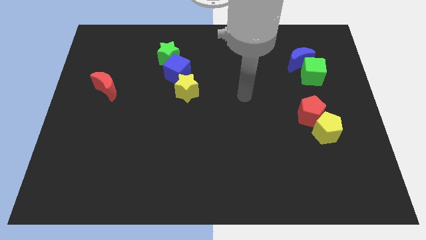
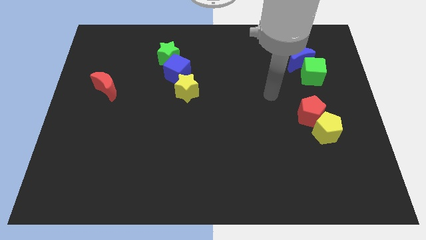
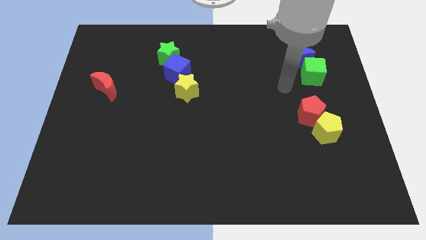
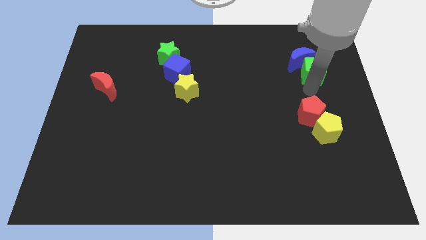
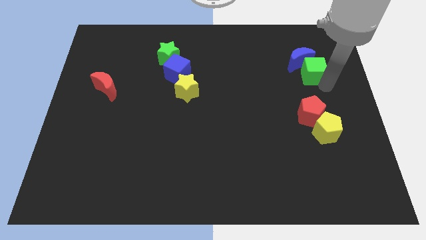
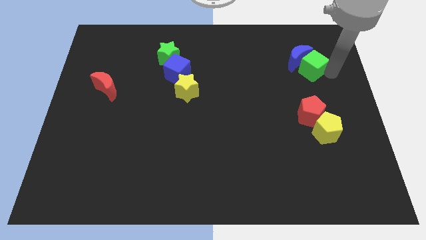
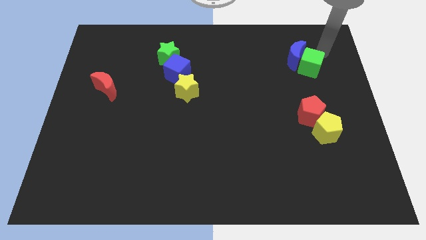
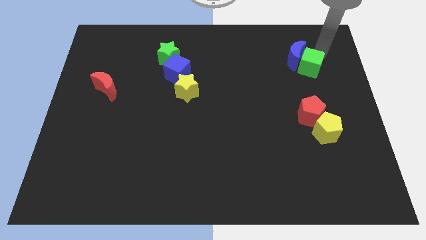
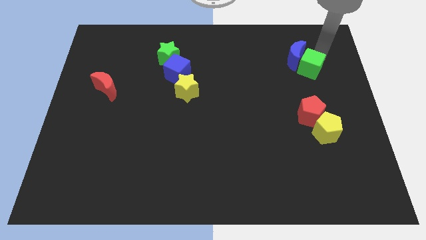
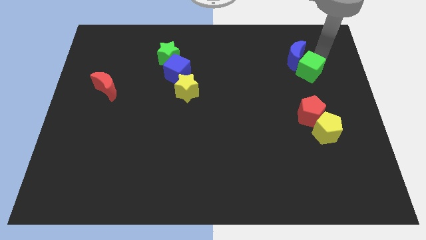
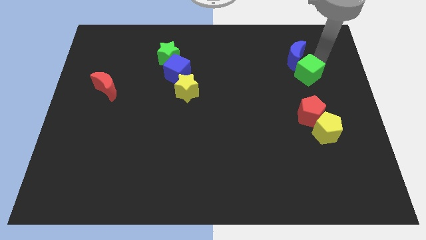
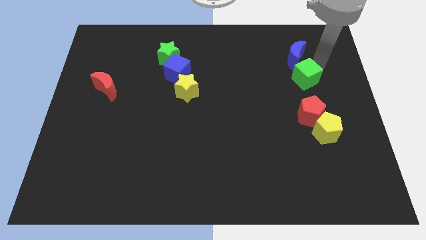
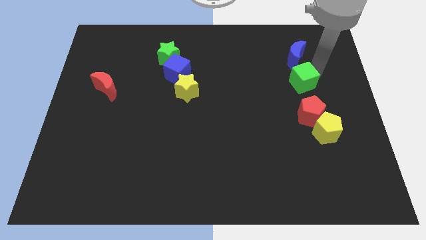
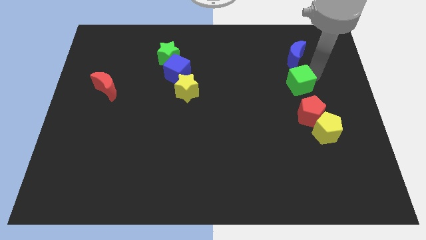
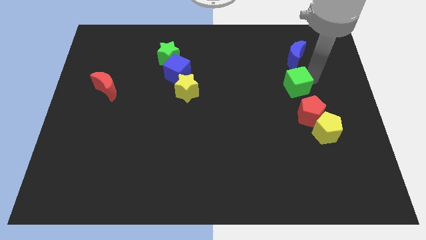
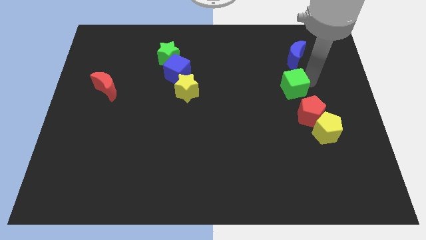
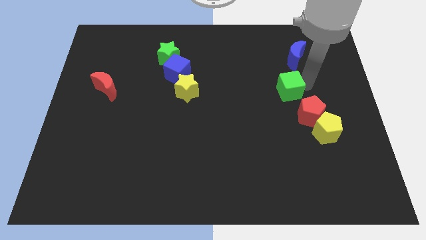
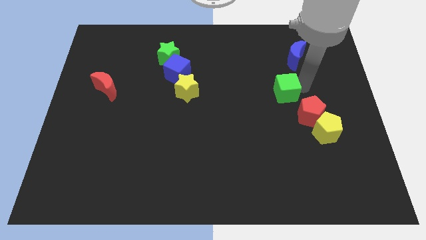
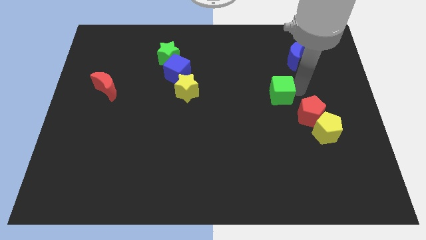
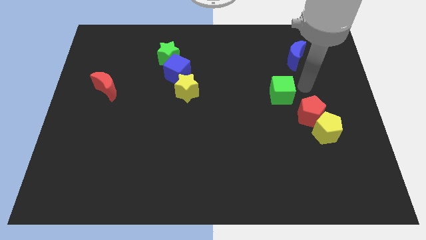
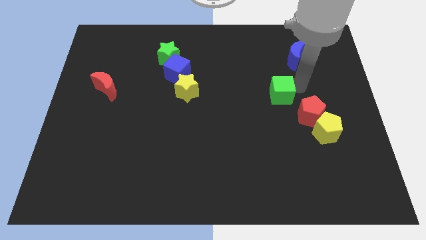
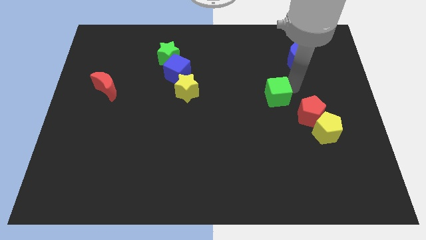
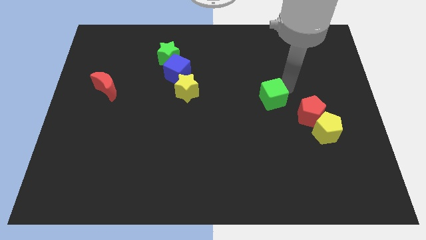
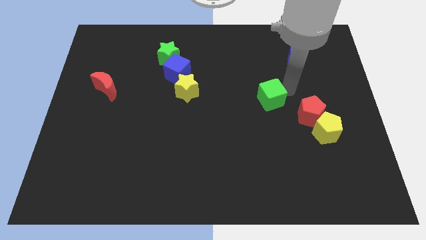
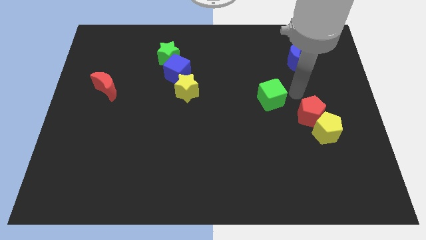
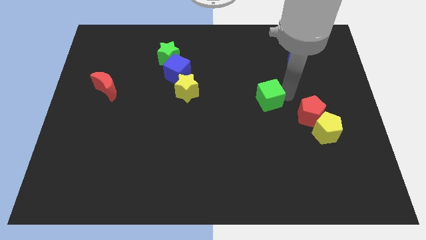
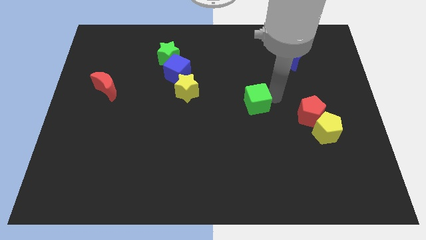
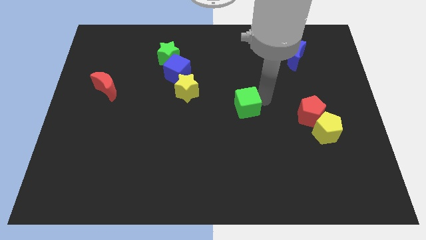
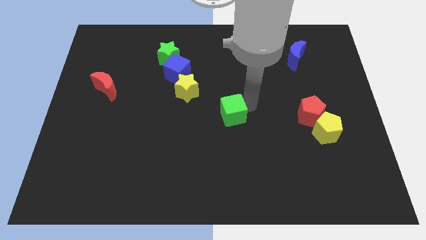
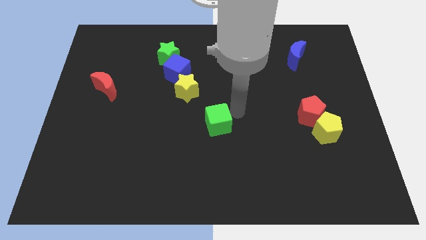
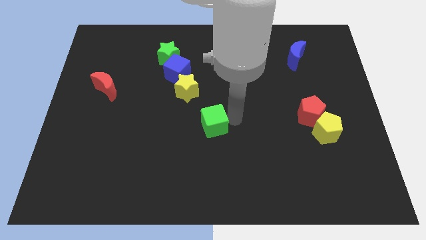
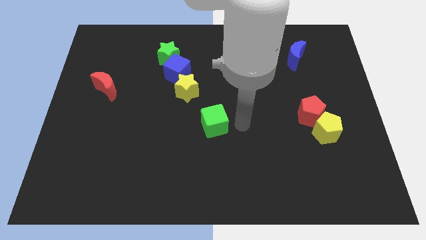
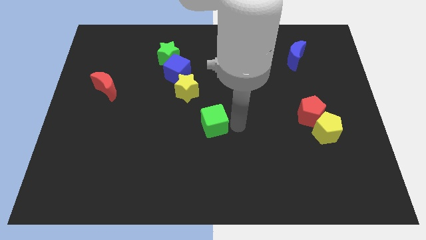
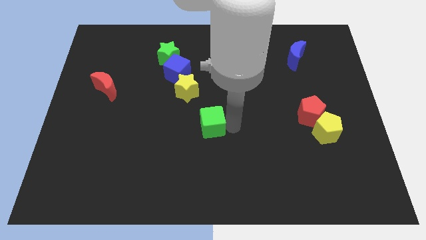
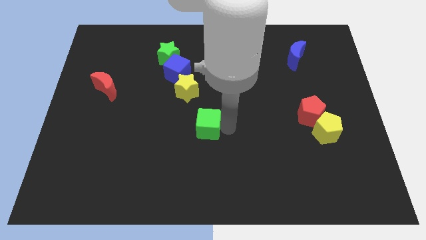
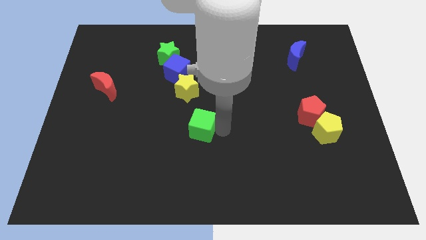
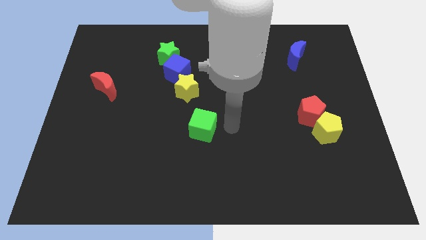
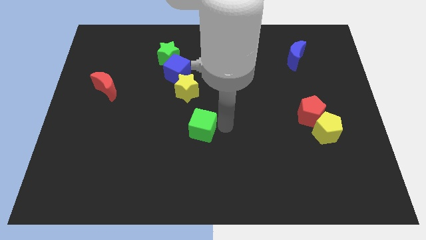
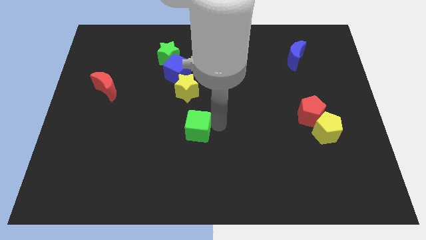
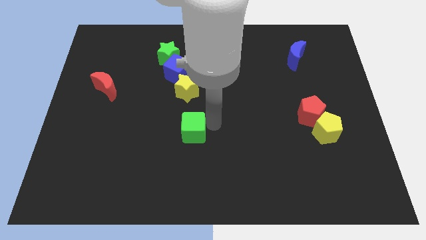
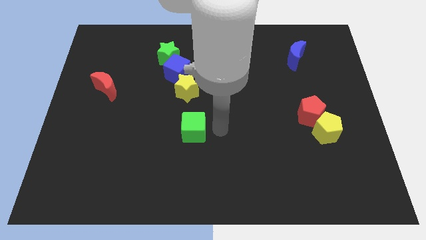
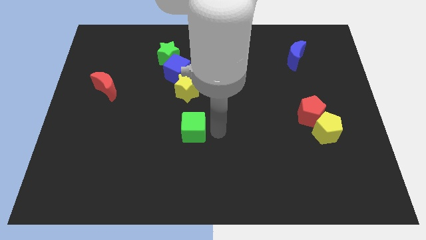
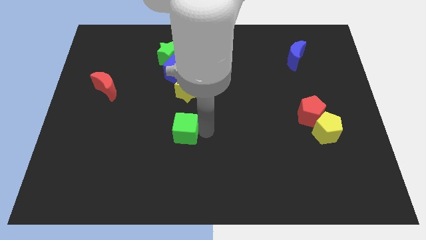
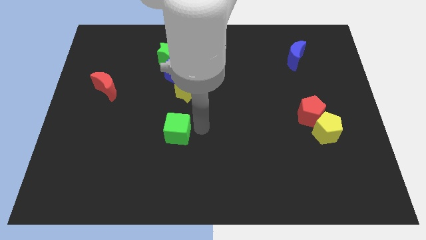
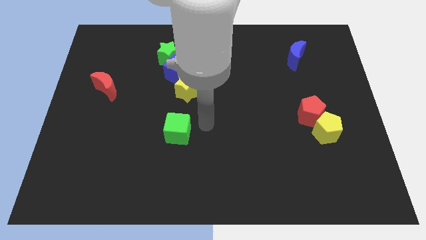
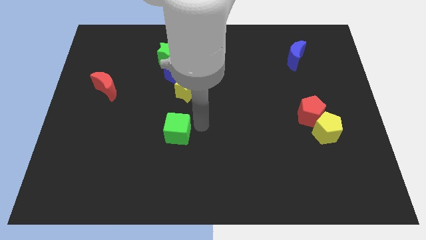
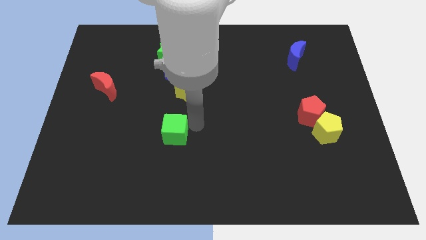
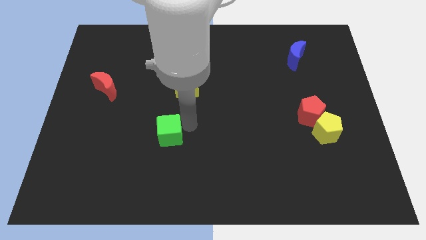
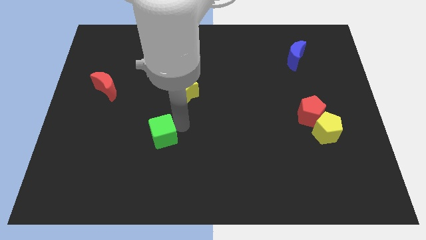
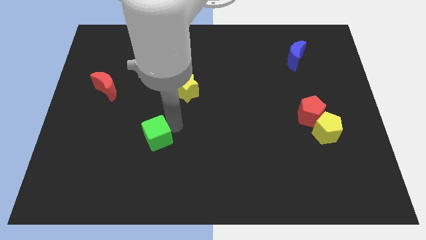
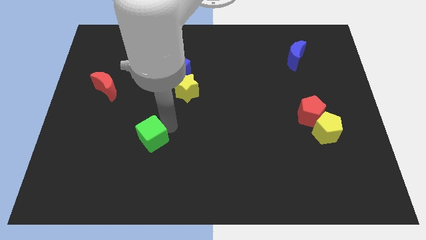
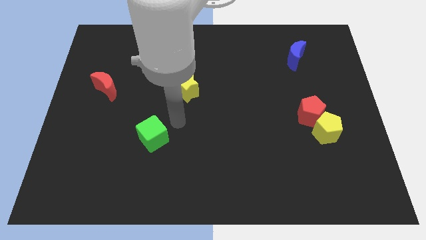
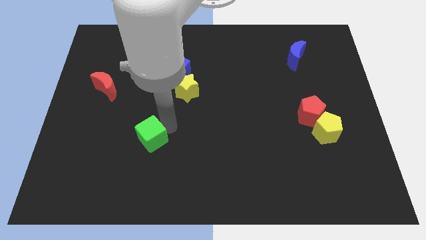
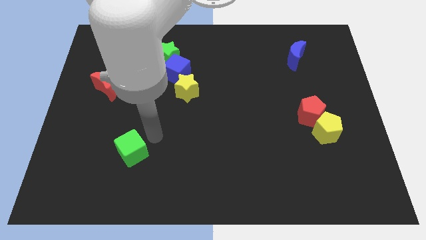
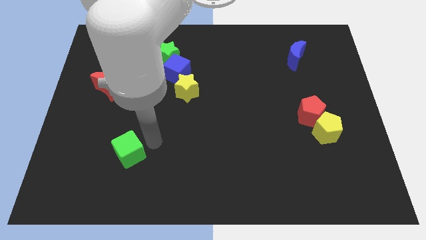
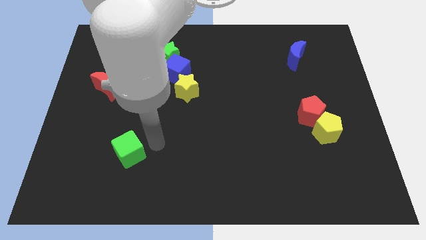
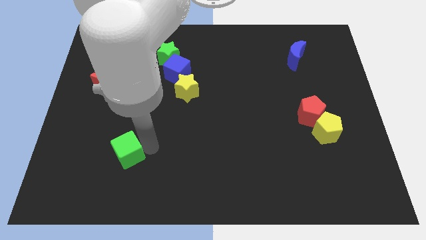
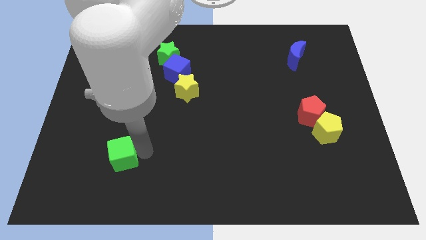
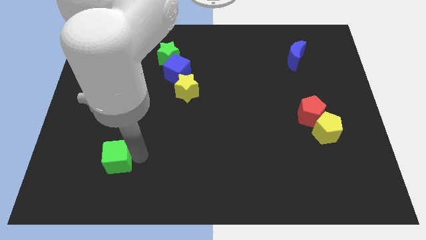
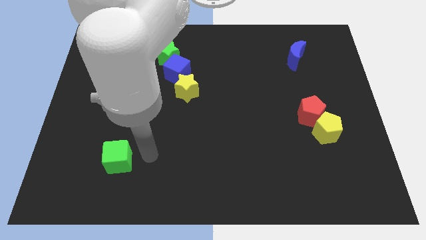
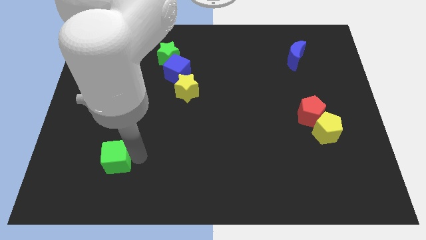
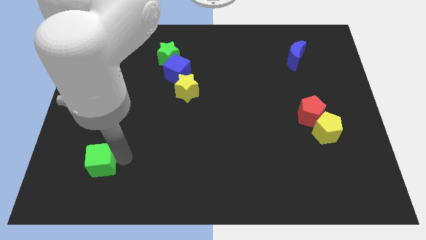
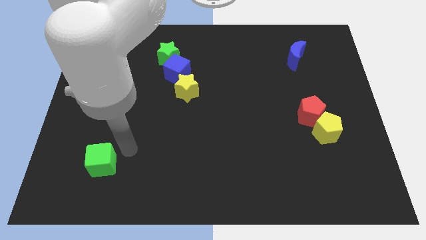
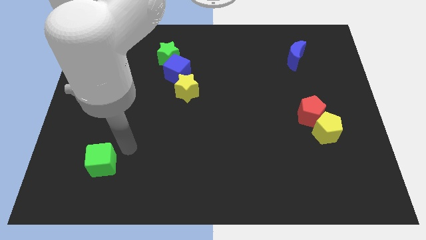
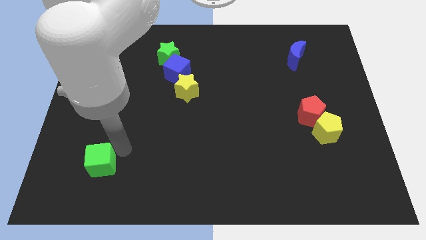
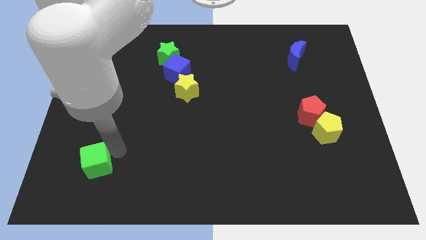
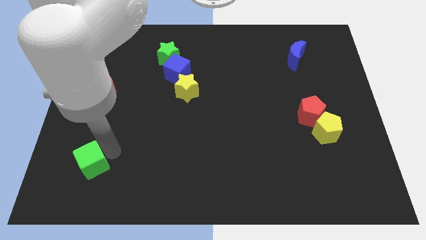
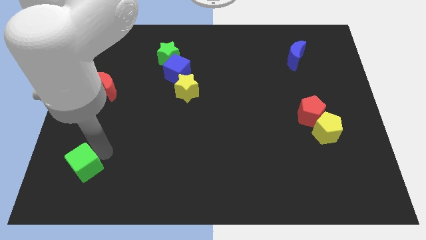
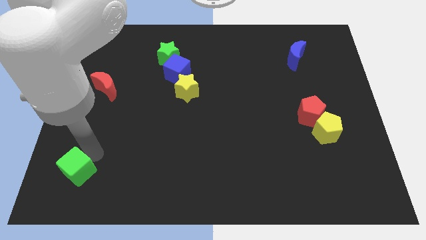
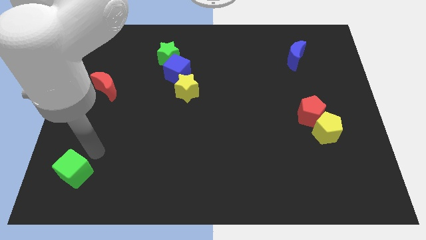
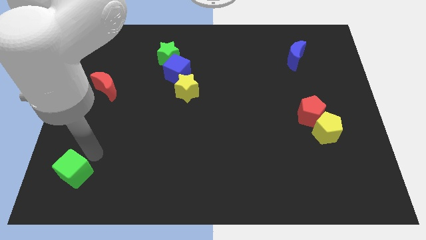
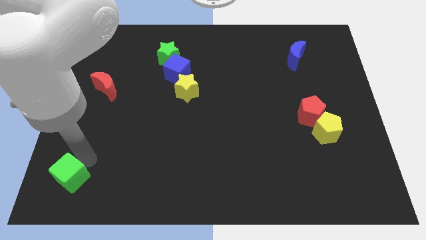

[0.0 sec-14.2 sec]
put the green cube to the bottom left of the board

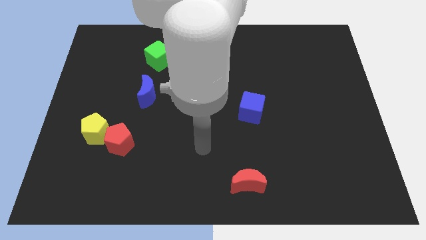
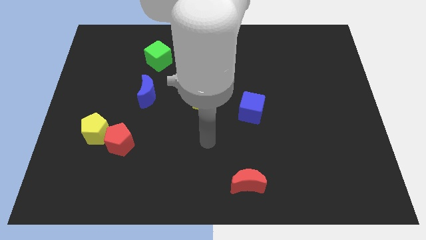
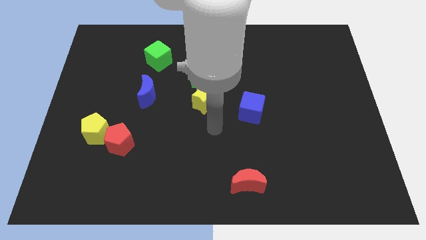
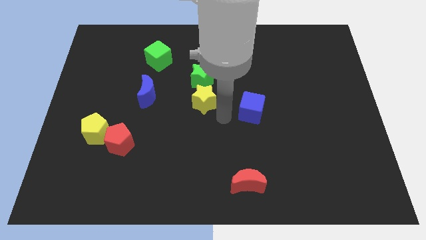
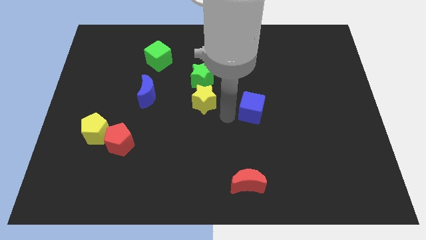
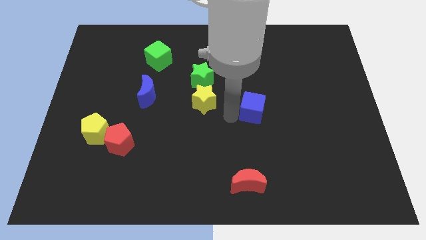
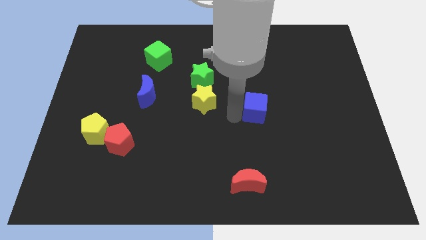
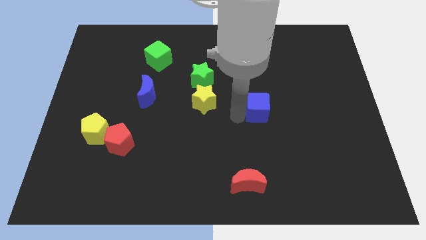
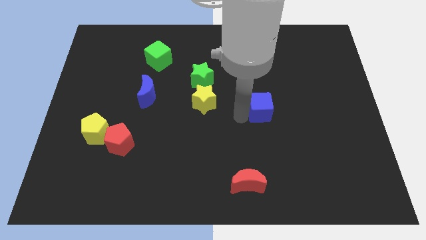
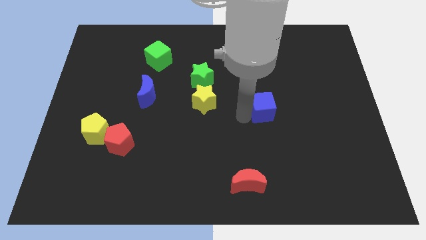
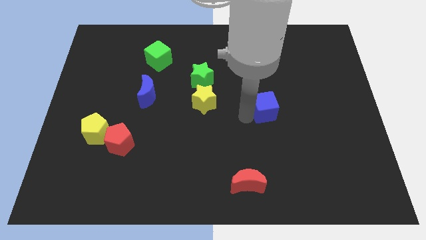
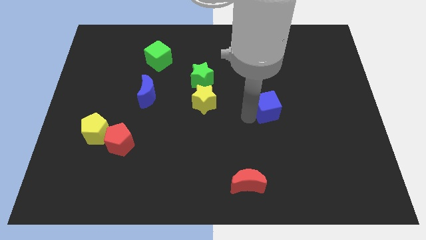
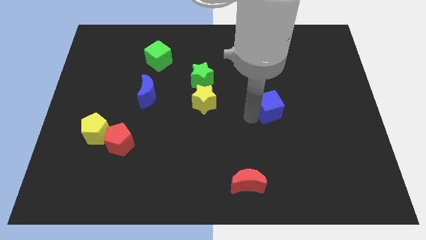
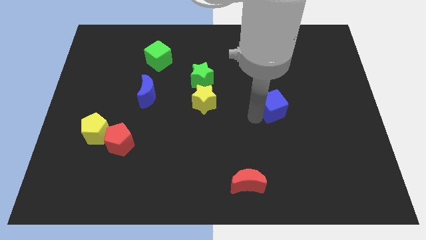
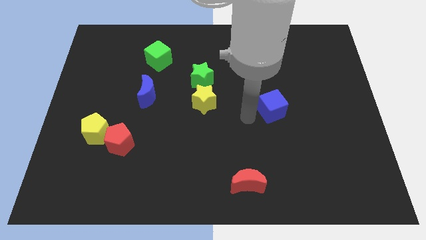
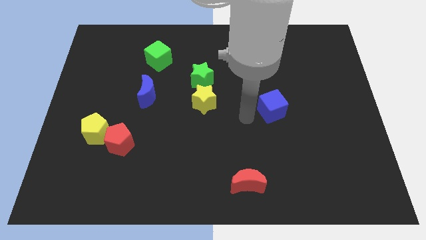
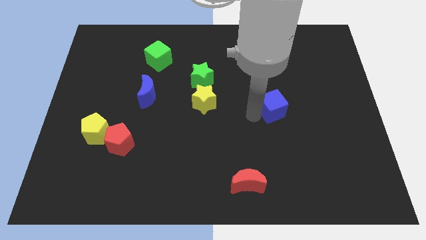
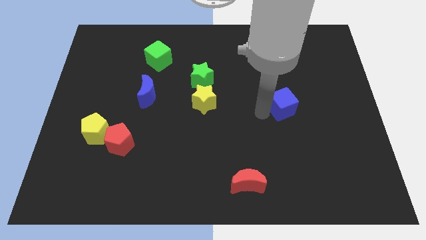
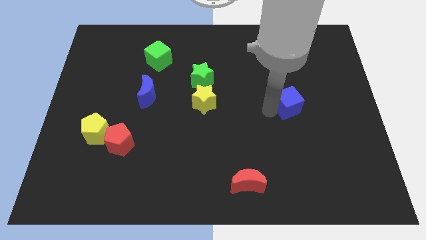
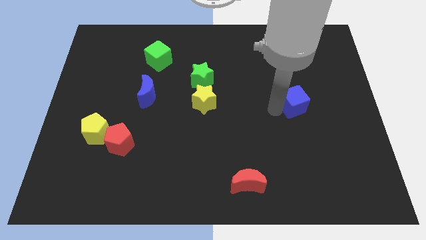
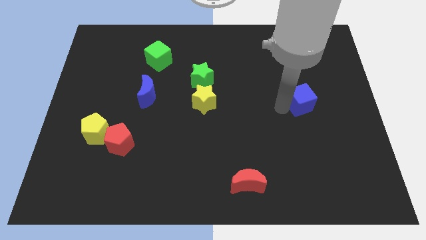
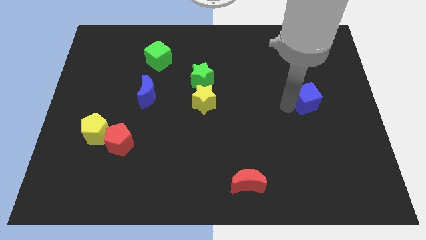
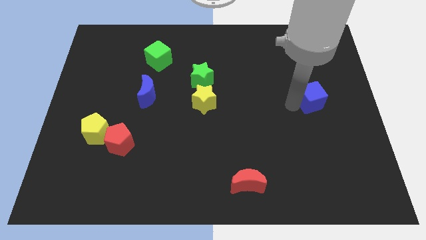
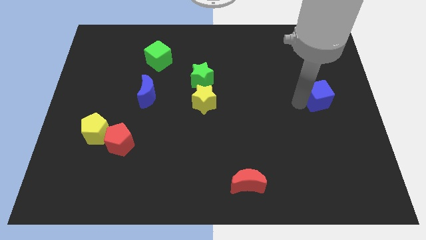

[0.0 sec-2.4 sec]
slide the blue cube to the center right
